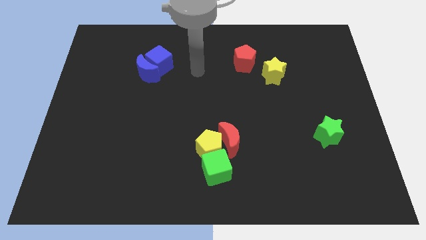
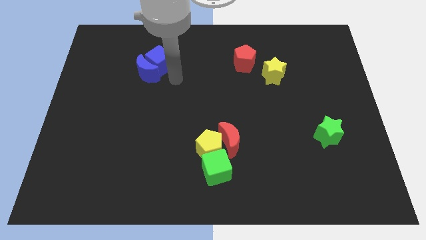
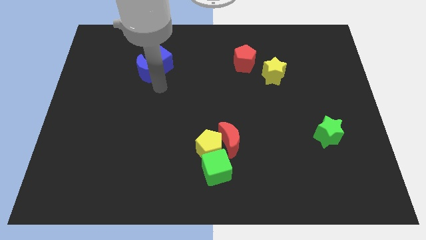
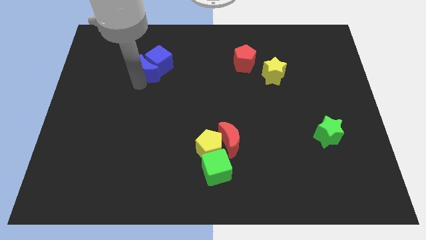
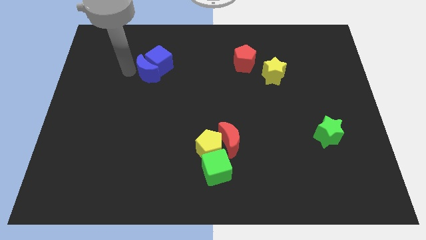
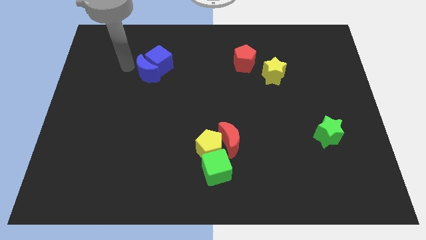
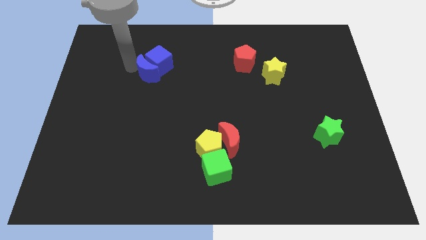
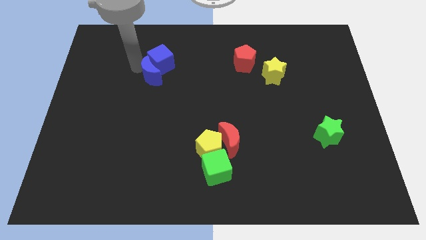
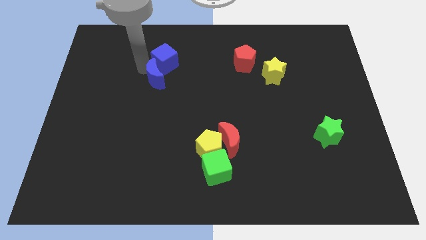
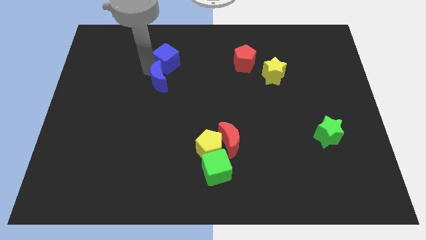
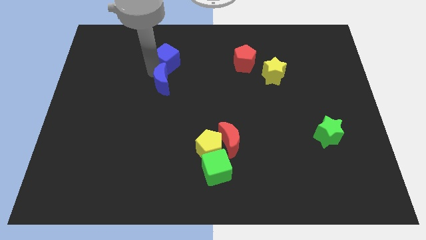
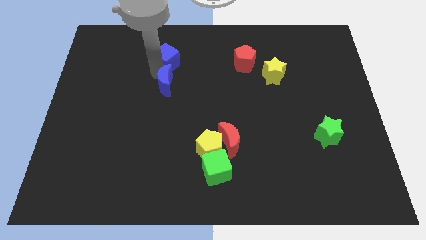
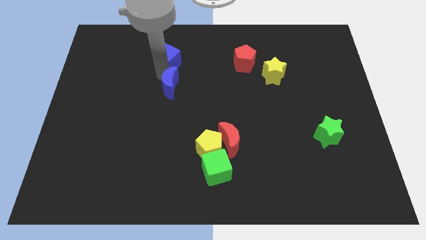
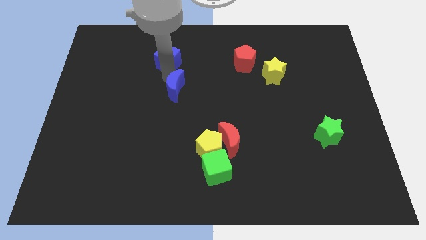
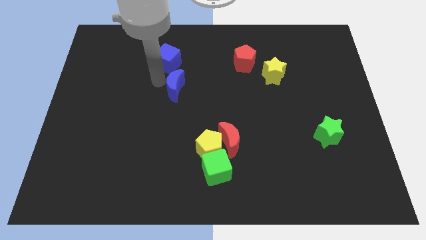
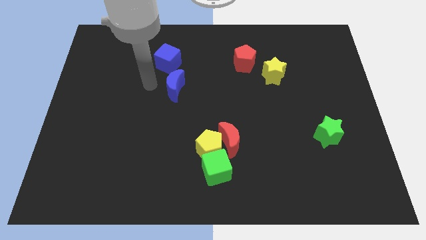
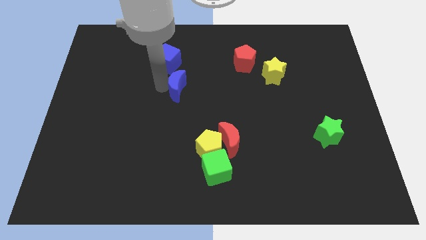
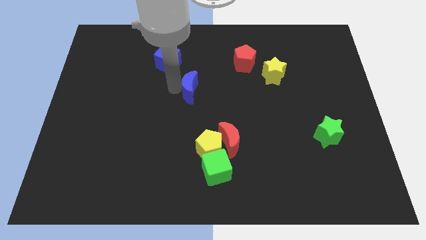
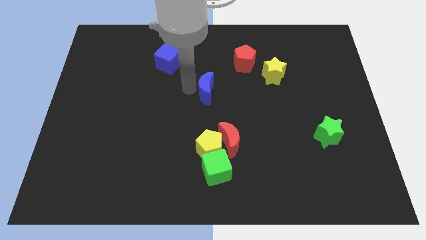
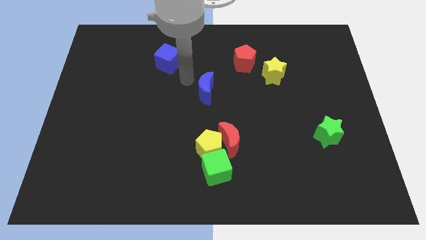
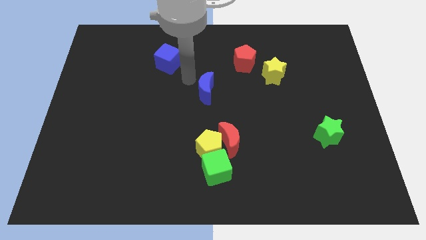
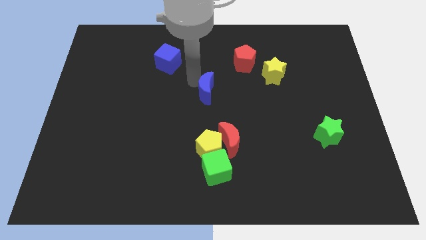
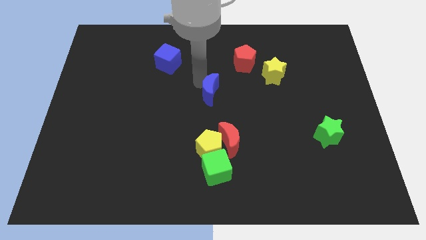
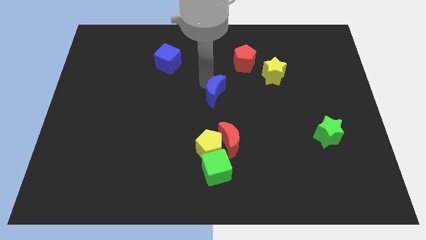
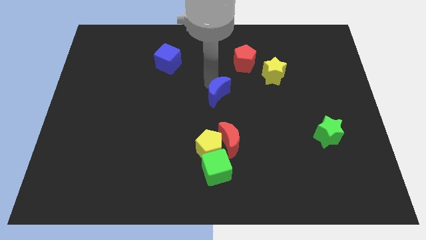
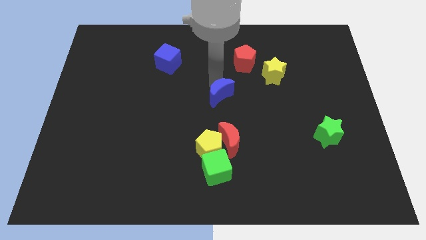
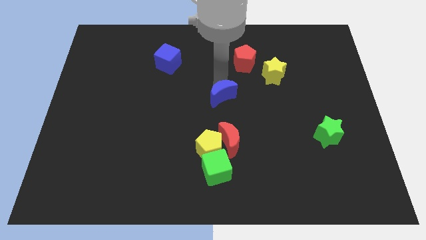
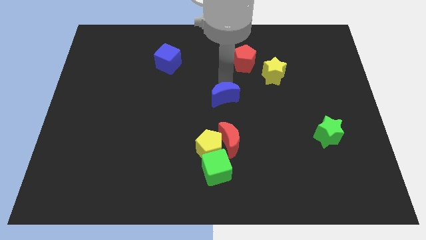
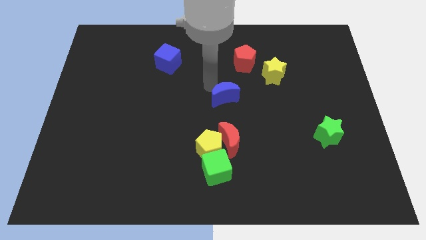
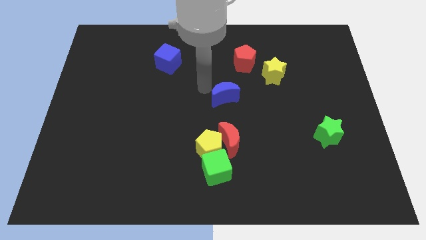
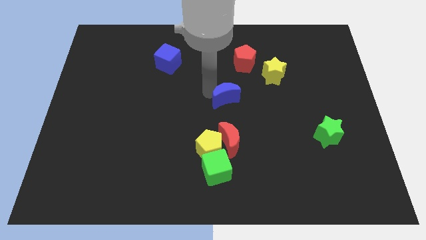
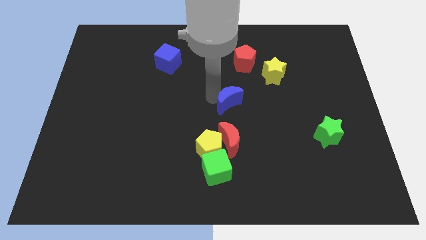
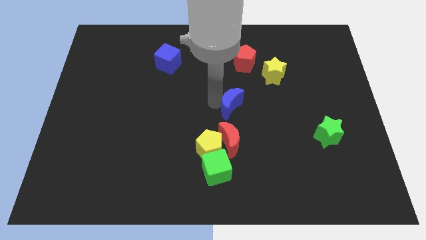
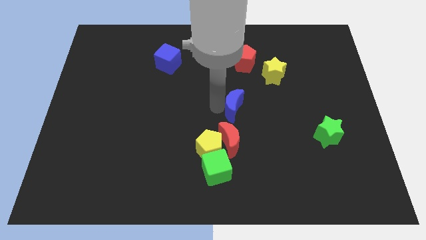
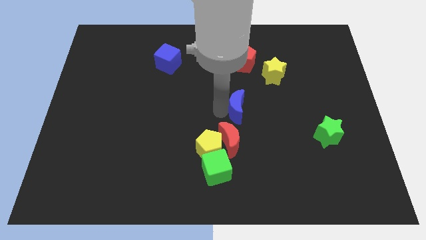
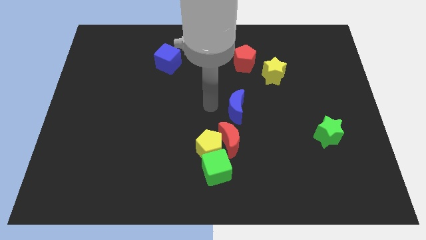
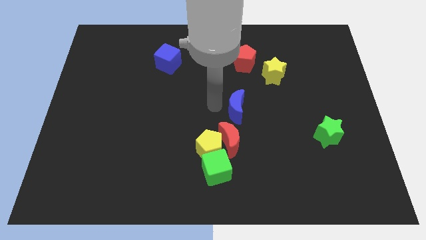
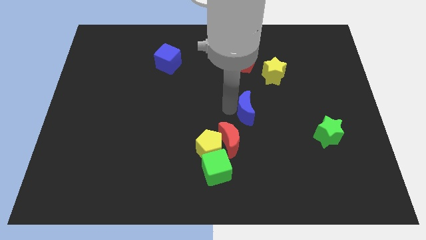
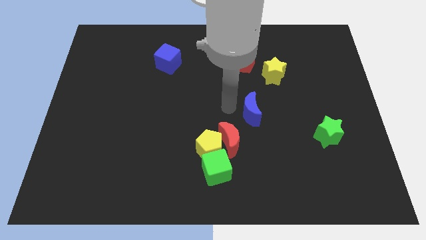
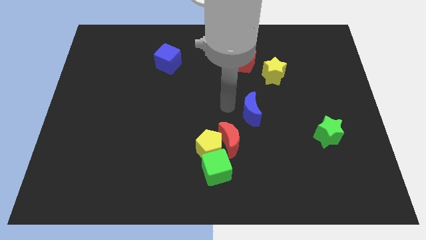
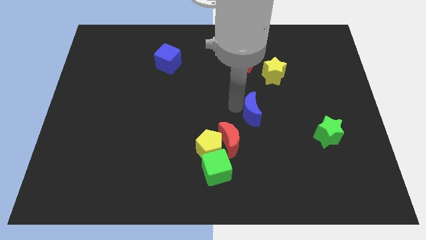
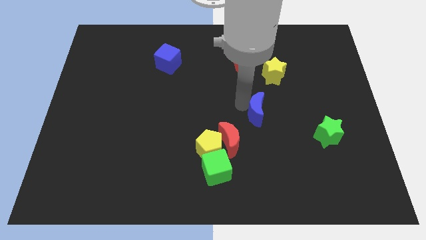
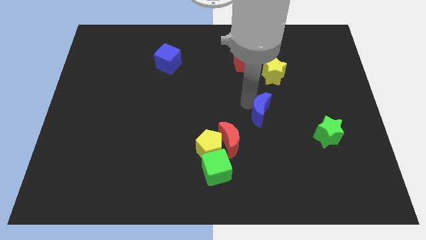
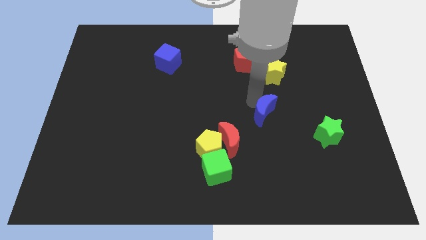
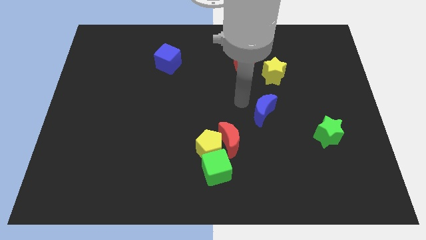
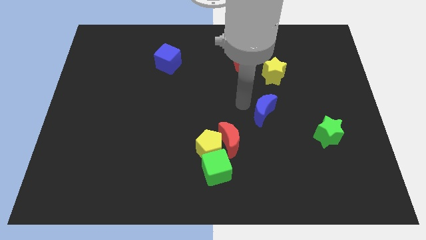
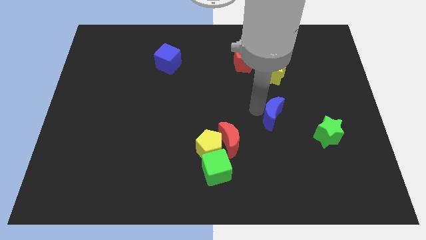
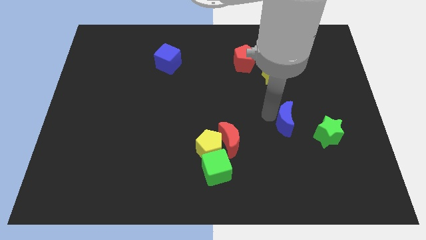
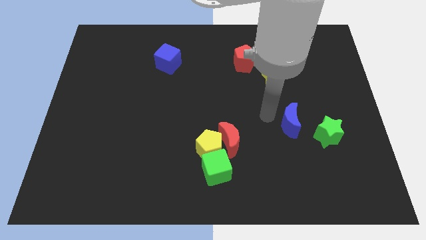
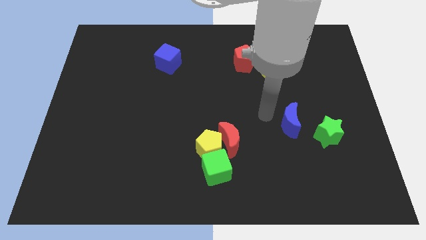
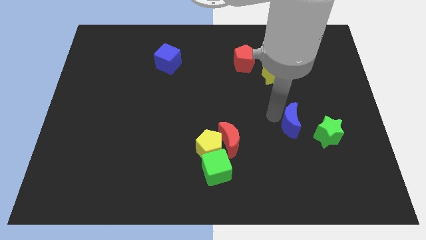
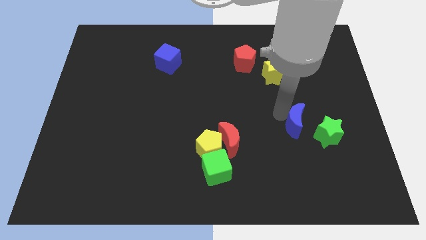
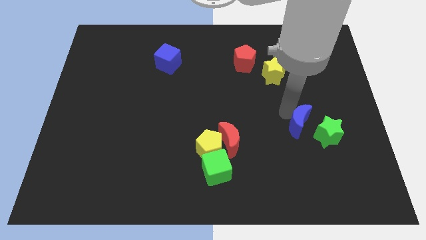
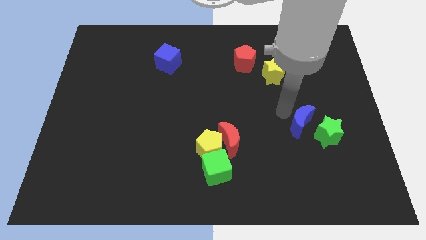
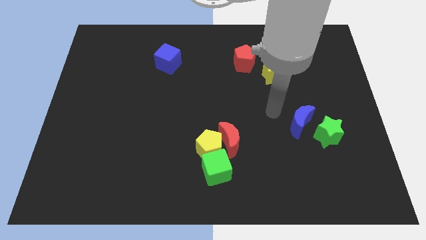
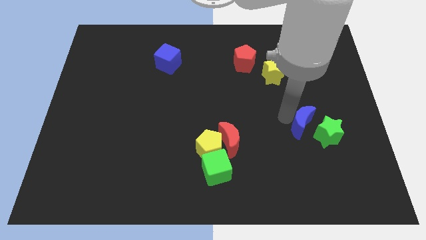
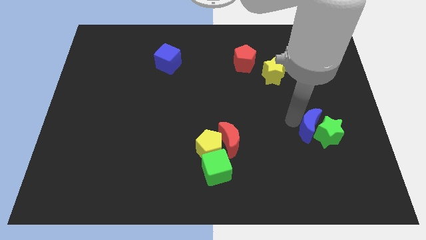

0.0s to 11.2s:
move the blue moon close to the green star

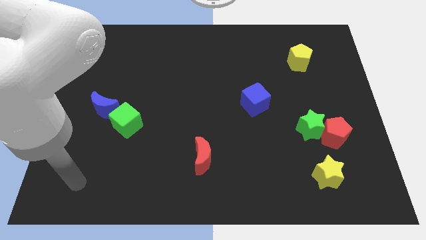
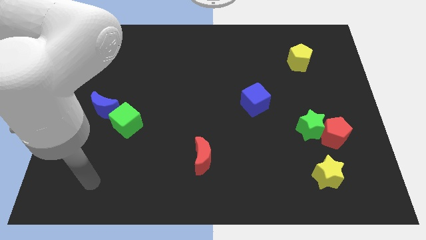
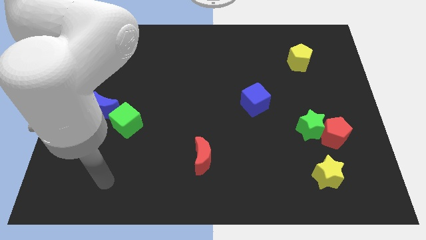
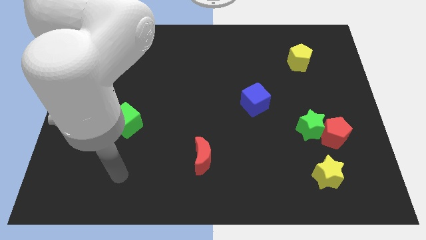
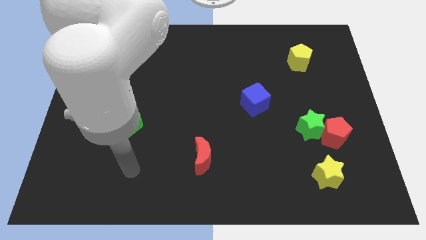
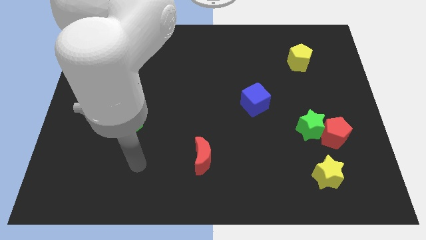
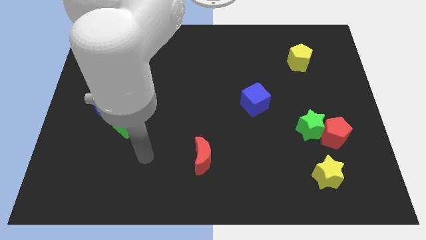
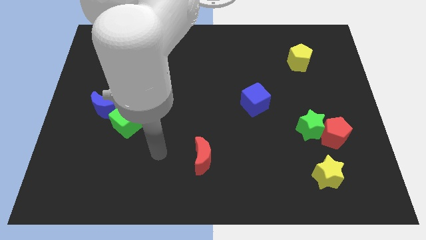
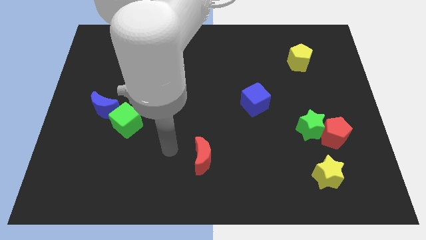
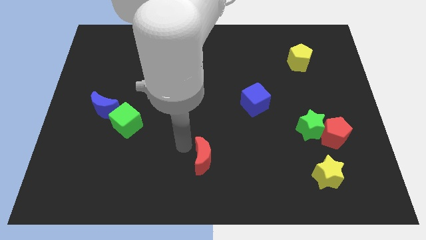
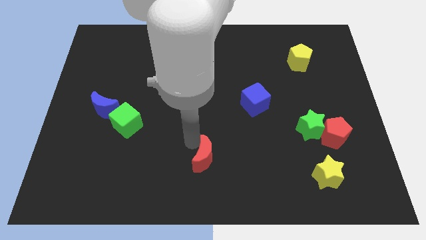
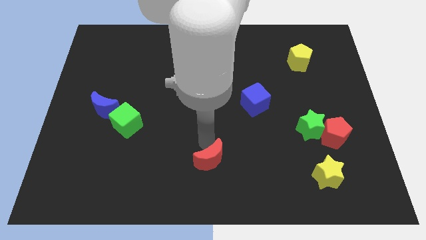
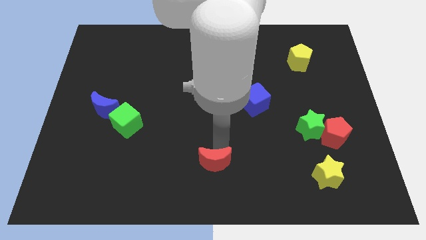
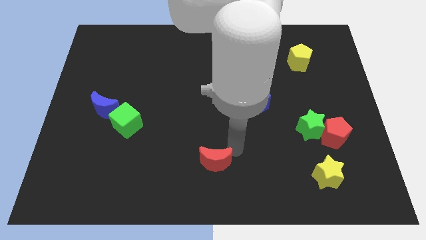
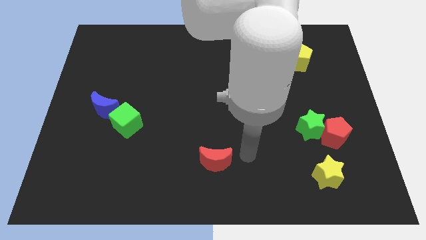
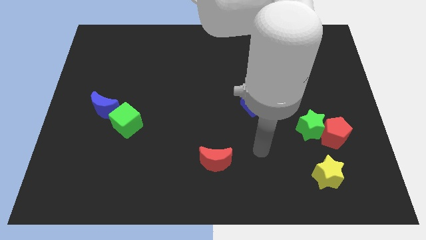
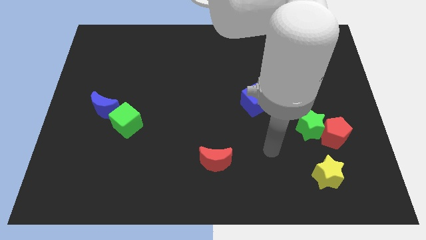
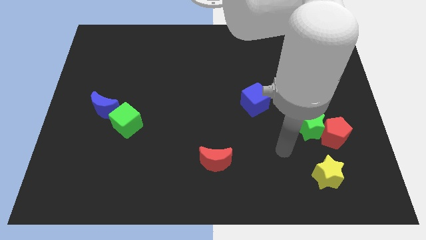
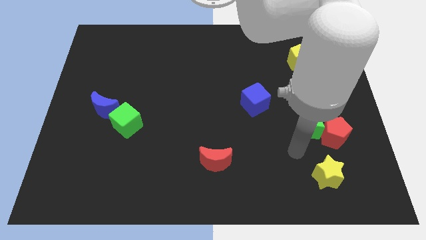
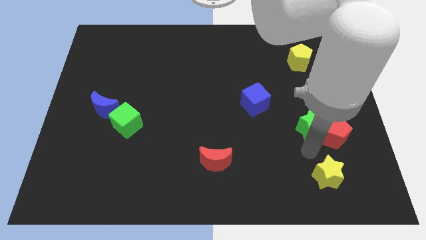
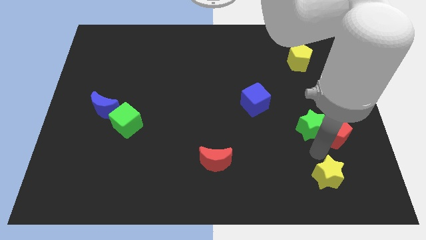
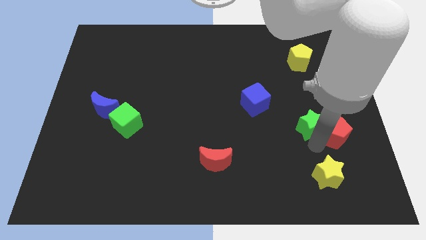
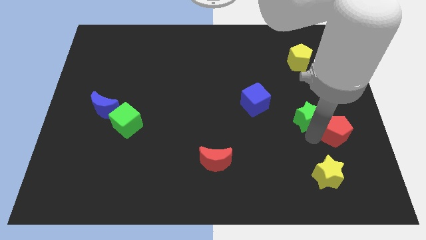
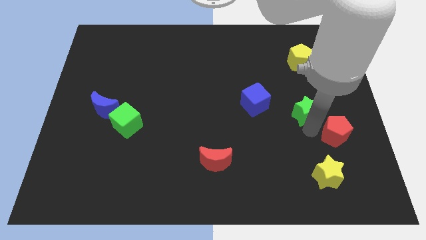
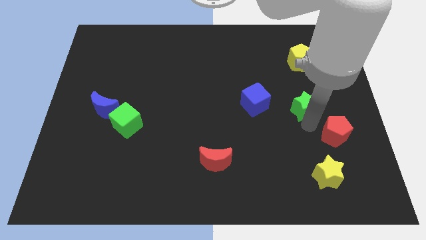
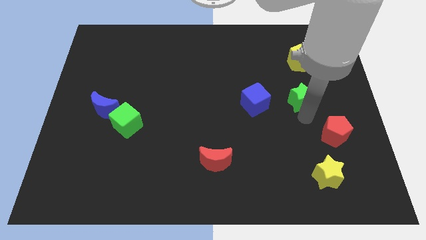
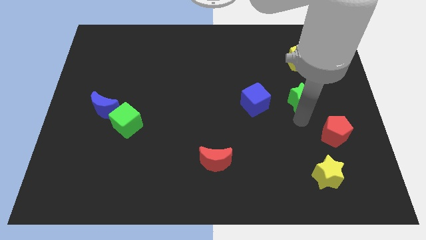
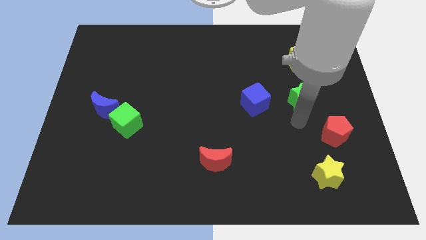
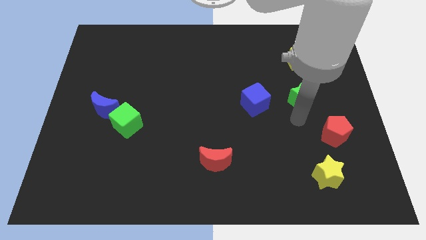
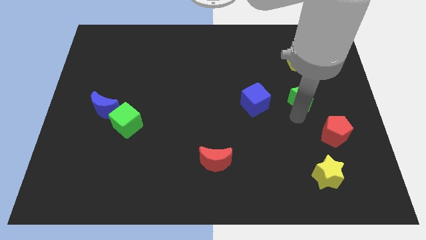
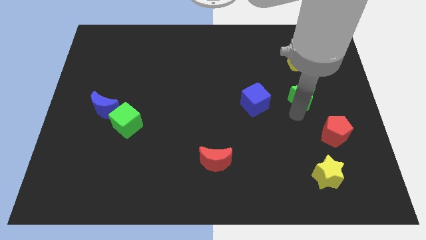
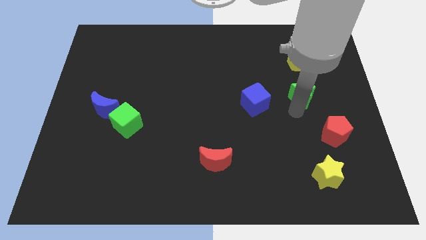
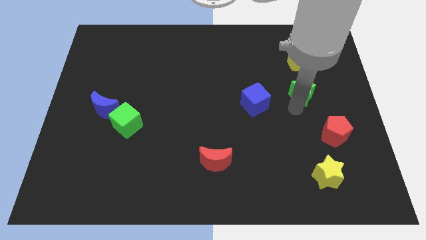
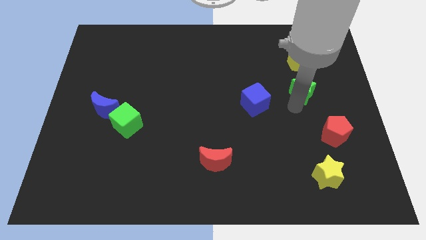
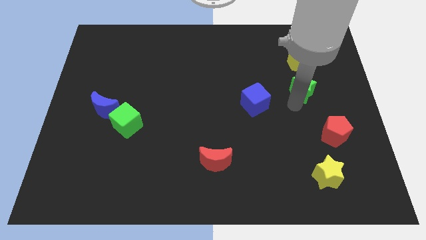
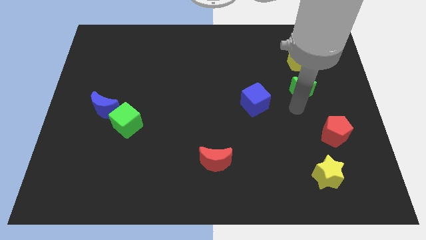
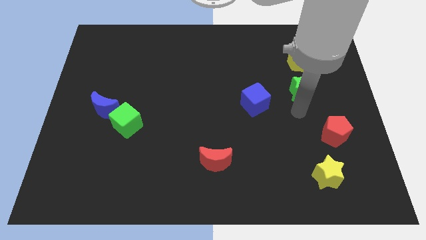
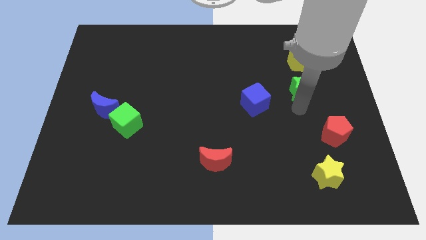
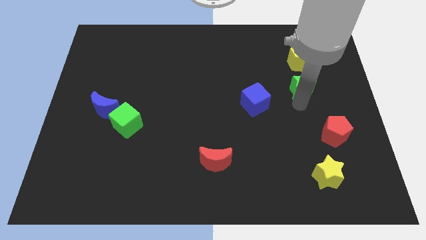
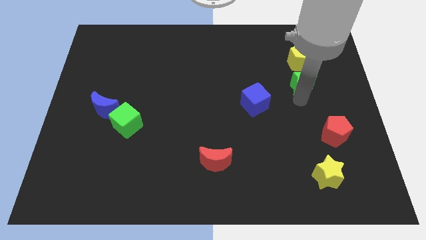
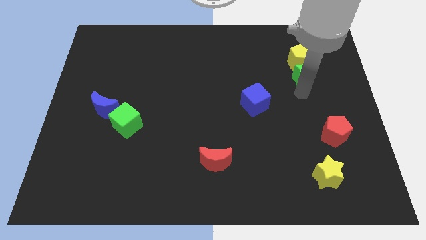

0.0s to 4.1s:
slide the green star to the yellow pentagon
